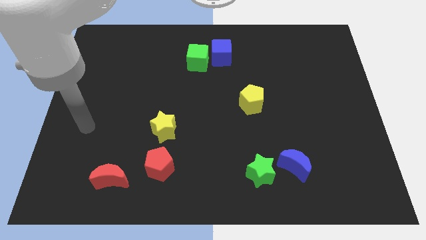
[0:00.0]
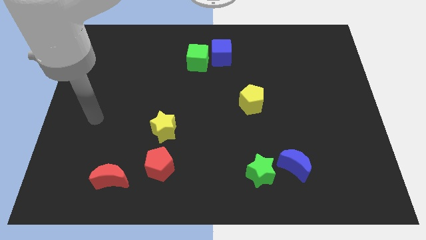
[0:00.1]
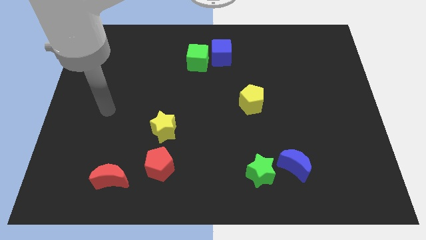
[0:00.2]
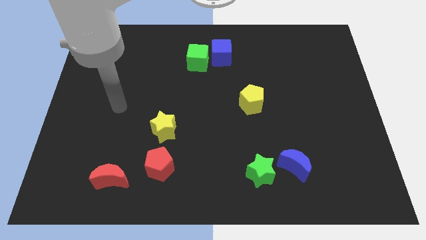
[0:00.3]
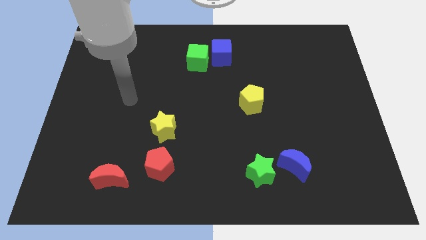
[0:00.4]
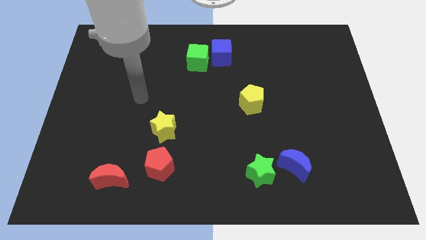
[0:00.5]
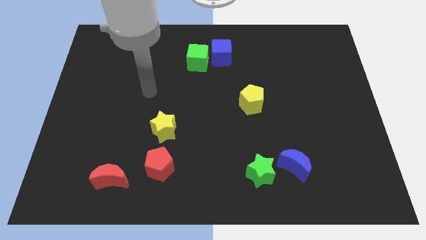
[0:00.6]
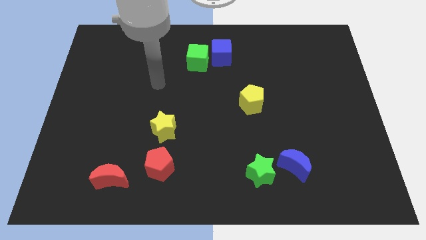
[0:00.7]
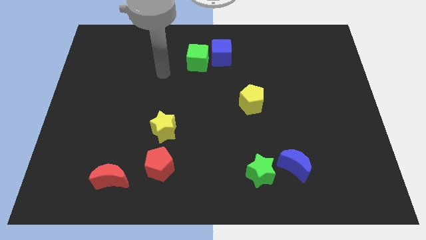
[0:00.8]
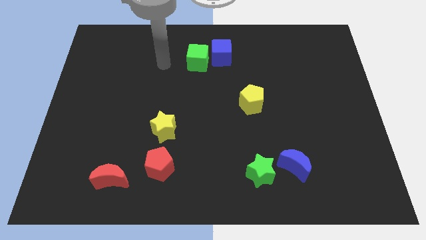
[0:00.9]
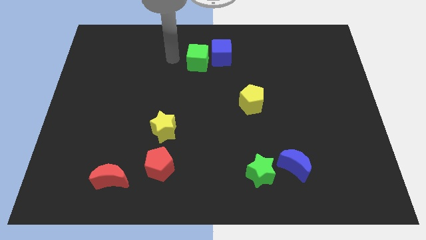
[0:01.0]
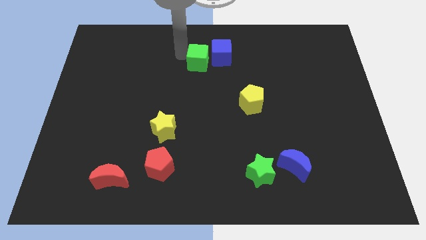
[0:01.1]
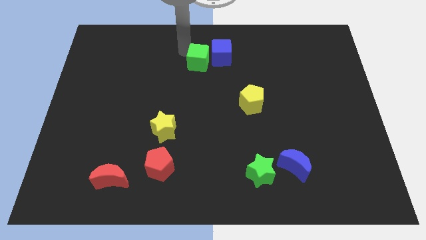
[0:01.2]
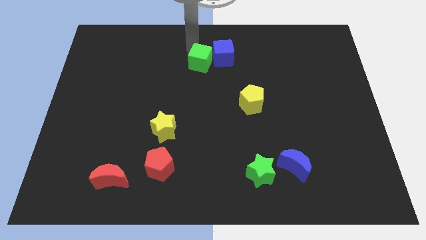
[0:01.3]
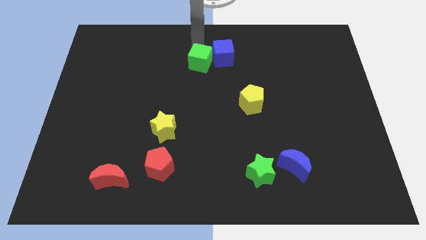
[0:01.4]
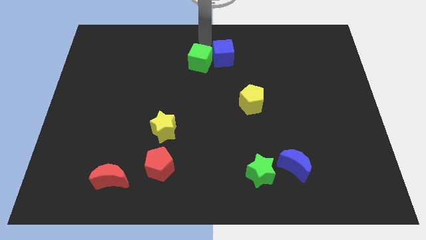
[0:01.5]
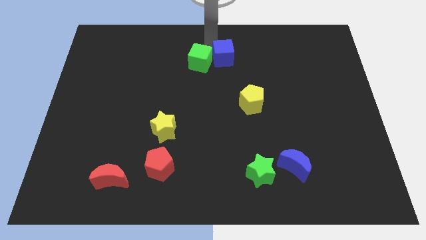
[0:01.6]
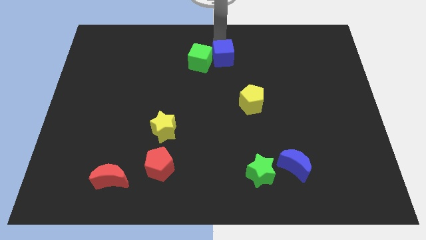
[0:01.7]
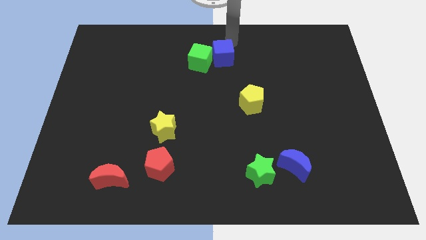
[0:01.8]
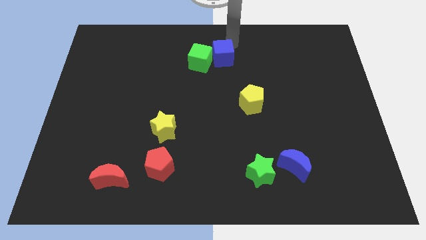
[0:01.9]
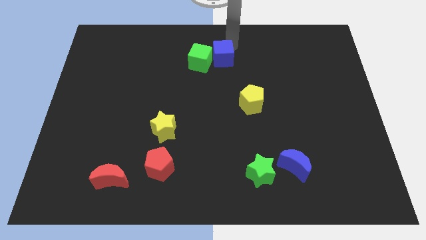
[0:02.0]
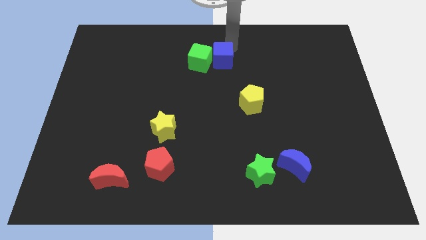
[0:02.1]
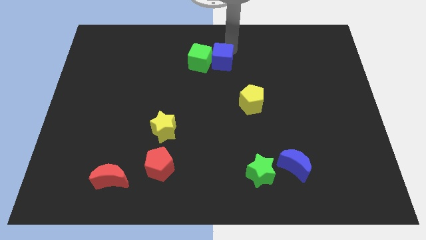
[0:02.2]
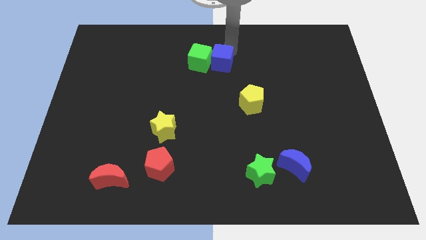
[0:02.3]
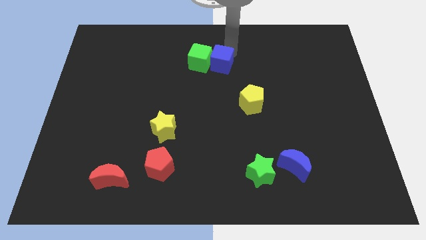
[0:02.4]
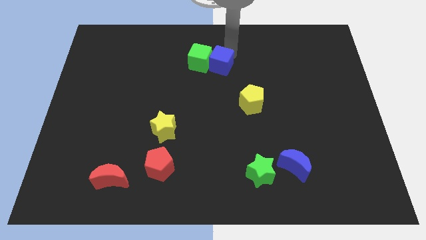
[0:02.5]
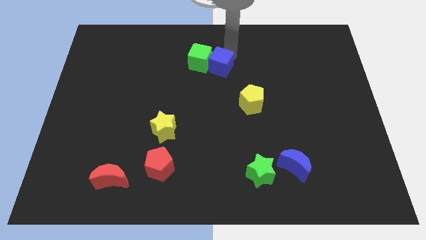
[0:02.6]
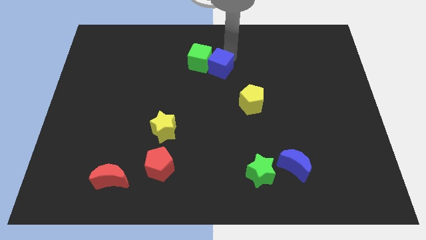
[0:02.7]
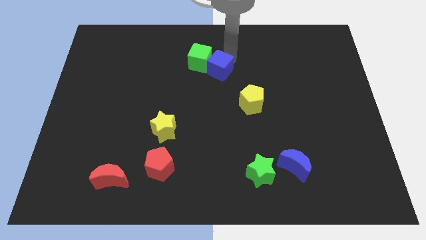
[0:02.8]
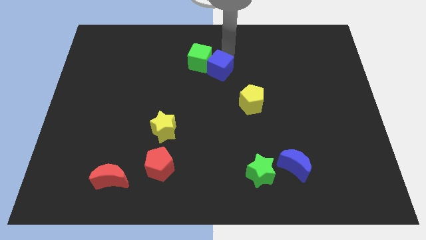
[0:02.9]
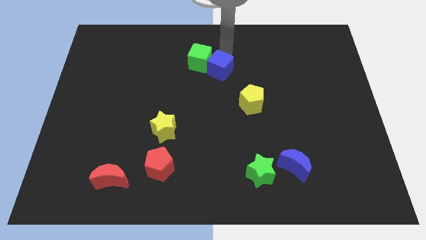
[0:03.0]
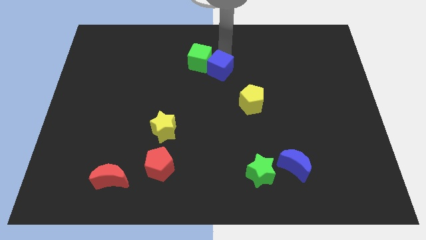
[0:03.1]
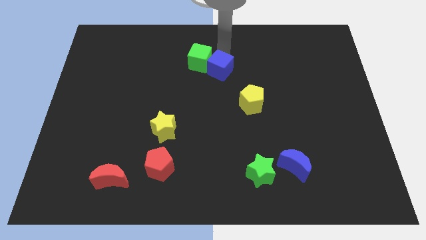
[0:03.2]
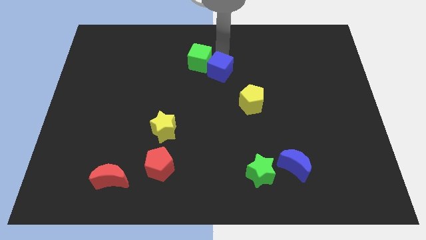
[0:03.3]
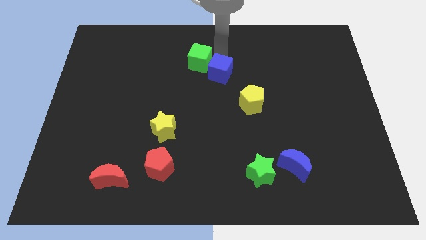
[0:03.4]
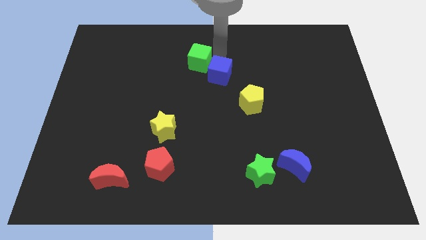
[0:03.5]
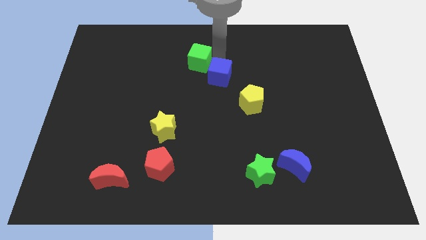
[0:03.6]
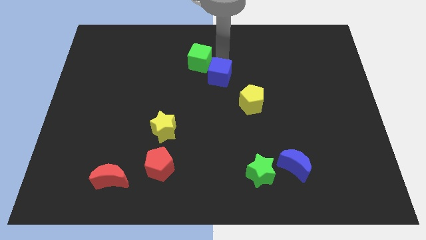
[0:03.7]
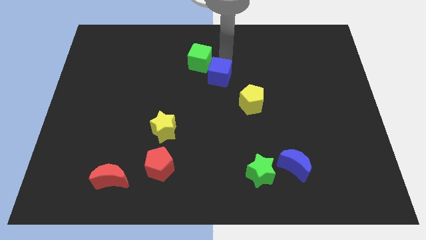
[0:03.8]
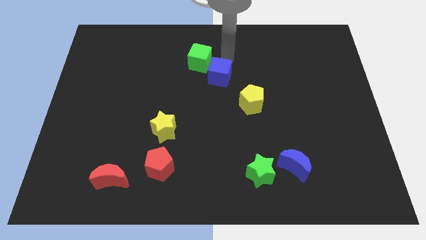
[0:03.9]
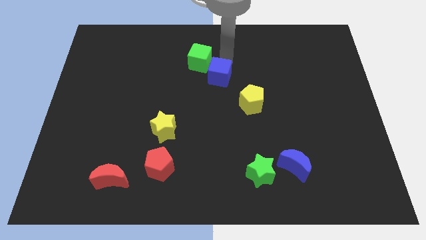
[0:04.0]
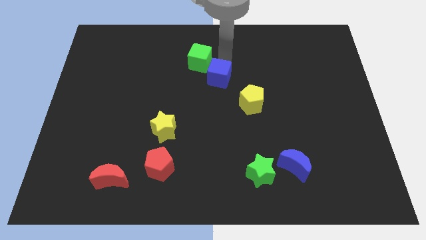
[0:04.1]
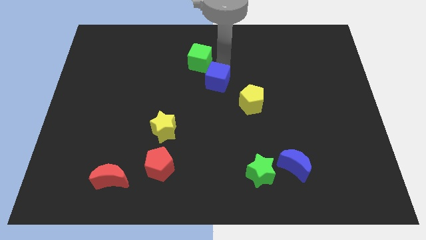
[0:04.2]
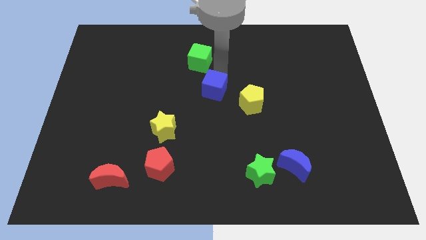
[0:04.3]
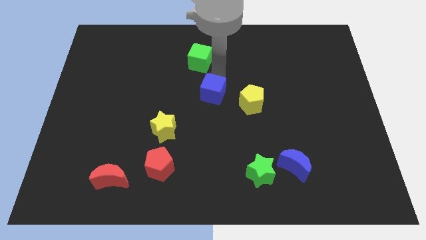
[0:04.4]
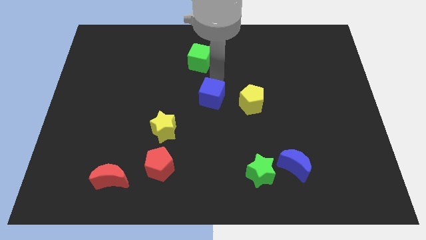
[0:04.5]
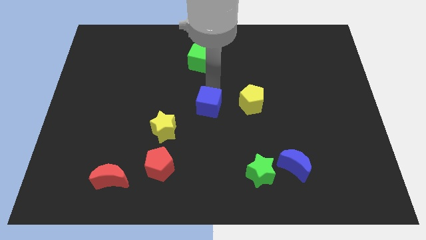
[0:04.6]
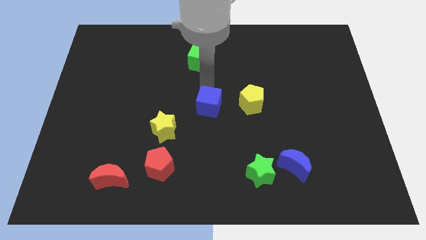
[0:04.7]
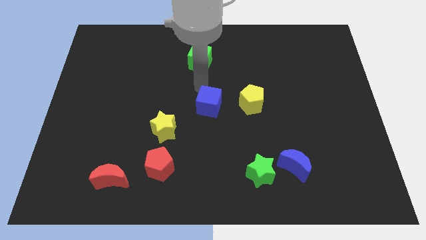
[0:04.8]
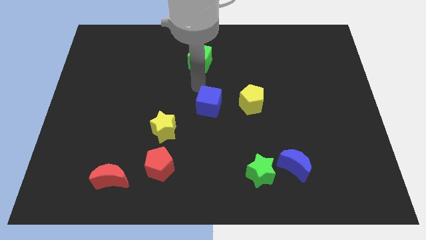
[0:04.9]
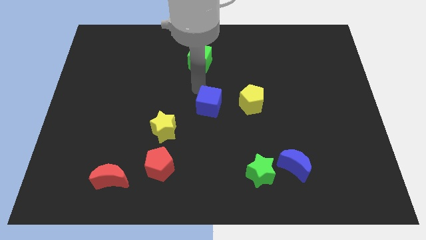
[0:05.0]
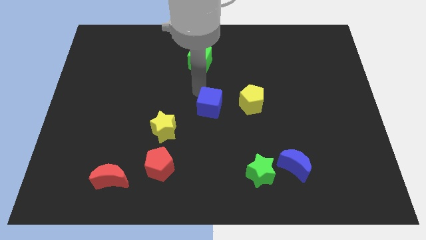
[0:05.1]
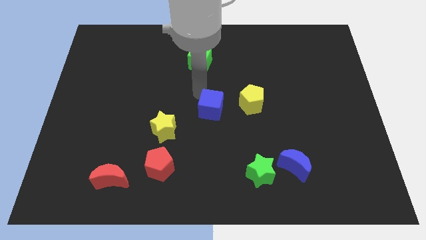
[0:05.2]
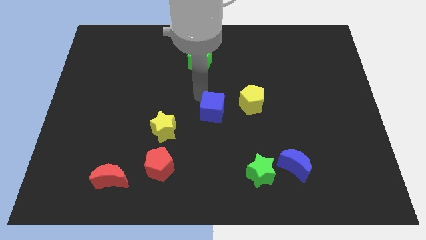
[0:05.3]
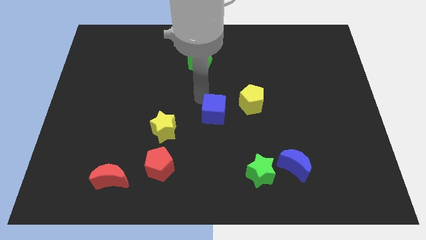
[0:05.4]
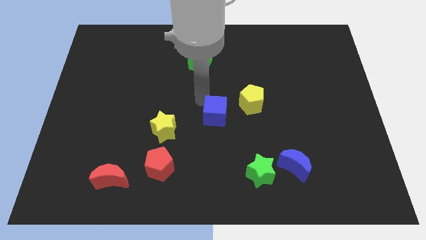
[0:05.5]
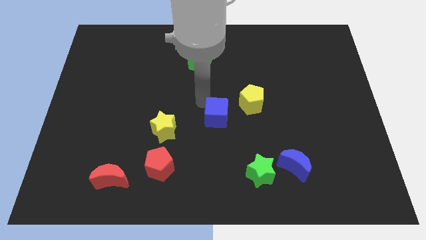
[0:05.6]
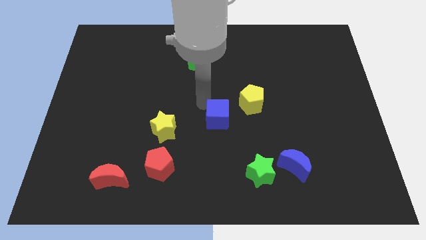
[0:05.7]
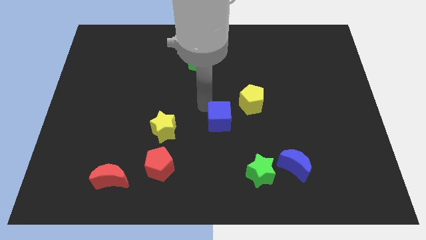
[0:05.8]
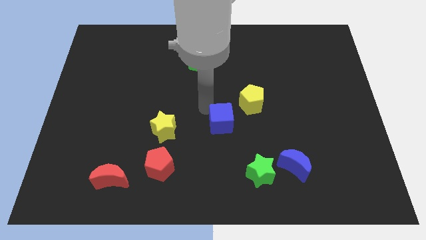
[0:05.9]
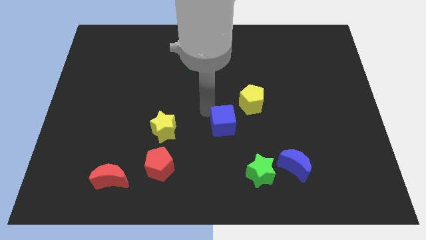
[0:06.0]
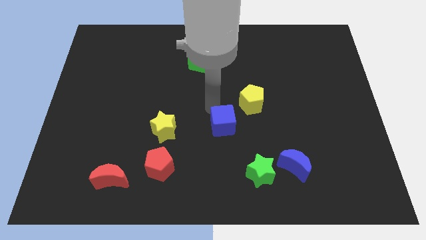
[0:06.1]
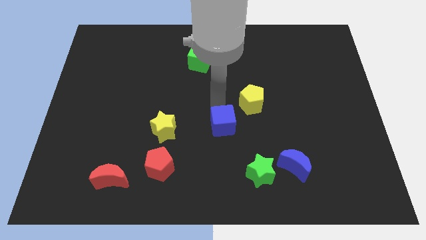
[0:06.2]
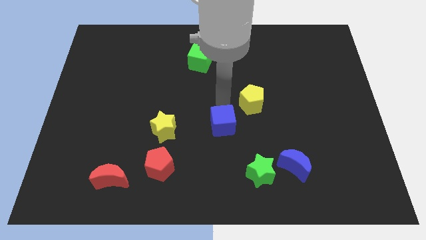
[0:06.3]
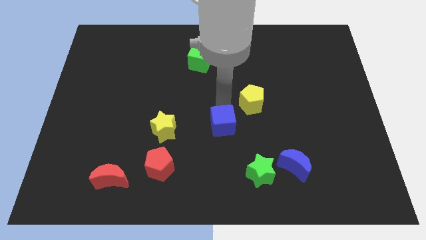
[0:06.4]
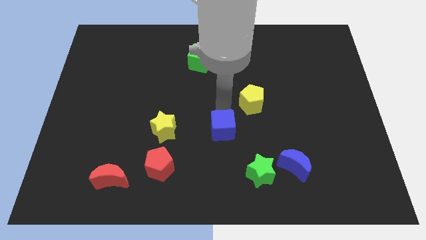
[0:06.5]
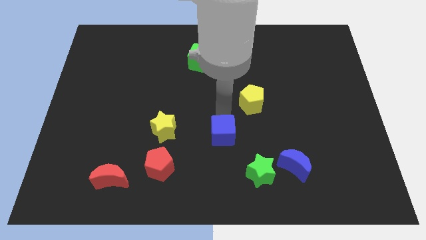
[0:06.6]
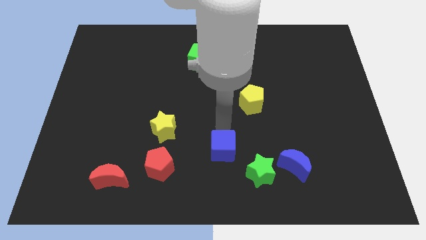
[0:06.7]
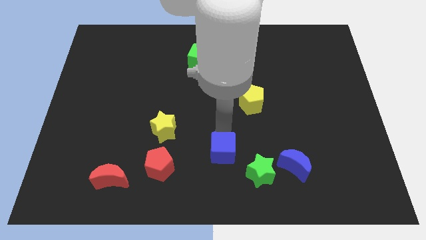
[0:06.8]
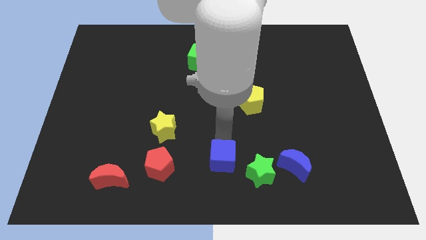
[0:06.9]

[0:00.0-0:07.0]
push the blue cube to the bottom side
